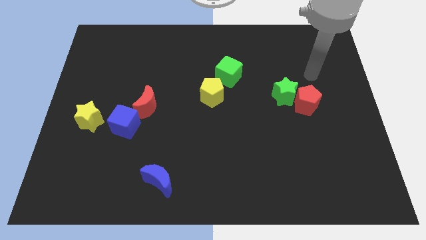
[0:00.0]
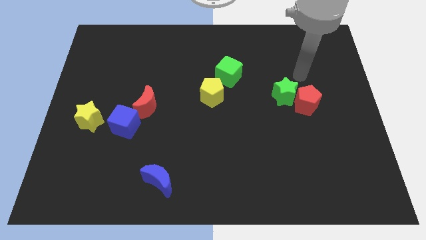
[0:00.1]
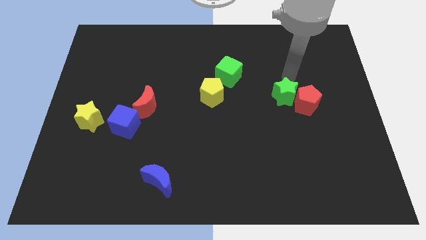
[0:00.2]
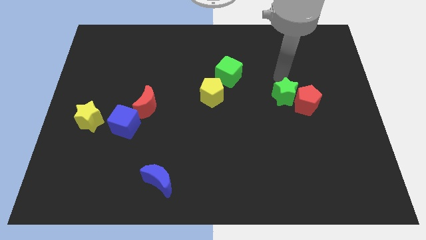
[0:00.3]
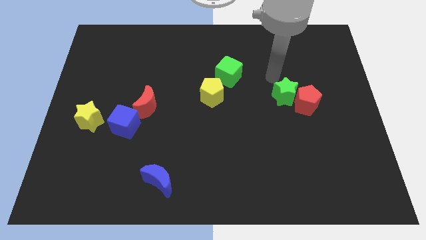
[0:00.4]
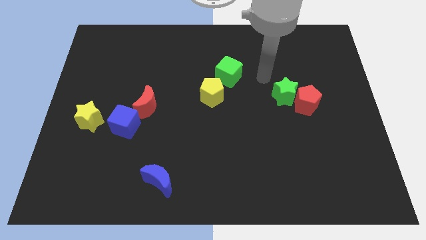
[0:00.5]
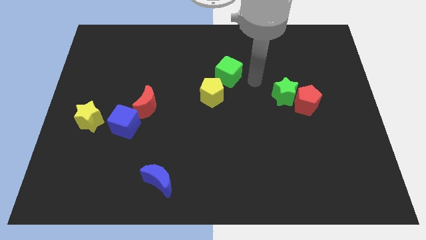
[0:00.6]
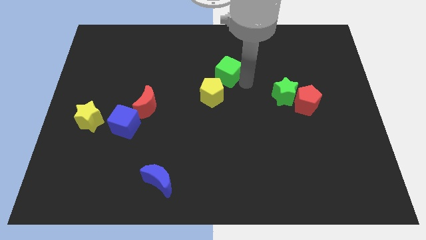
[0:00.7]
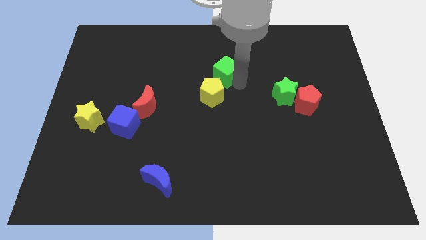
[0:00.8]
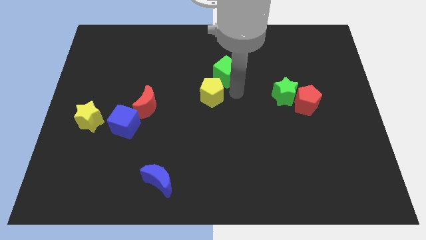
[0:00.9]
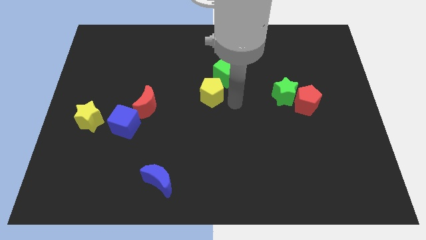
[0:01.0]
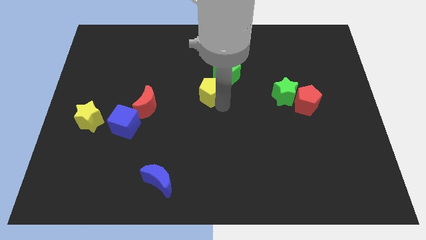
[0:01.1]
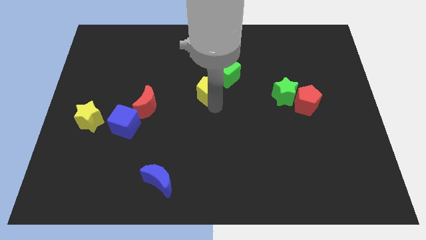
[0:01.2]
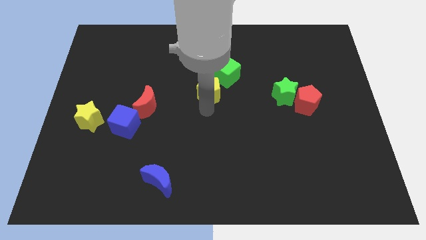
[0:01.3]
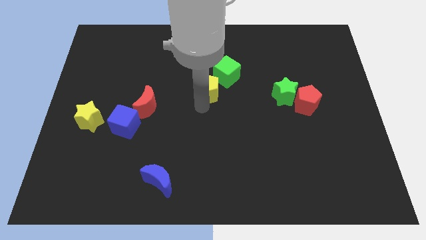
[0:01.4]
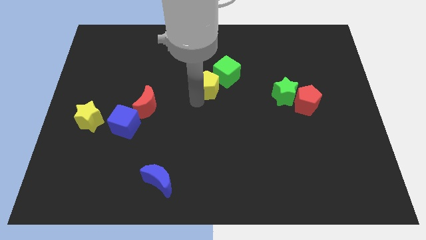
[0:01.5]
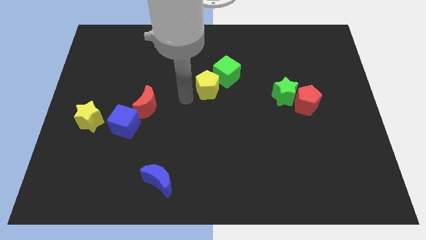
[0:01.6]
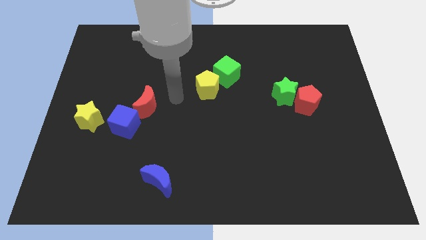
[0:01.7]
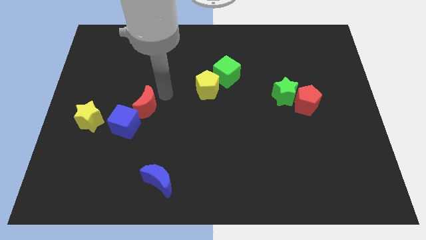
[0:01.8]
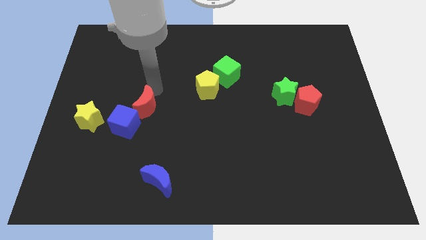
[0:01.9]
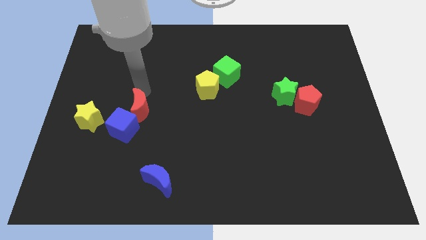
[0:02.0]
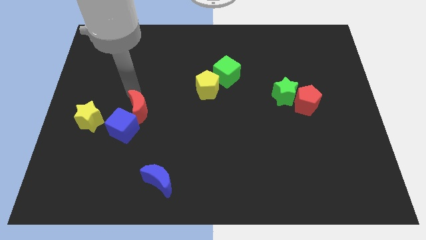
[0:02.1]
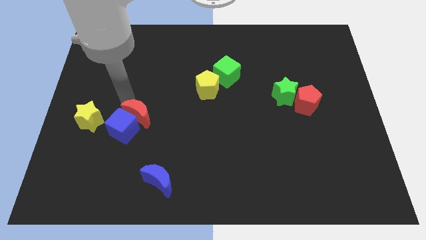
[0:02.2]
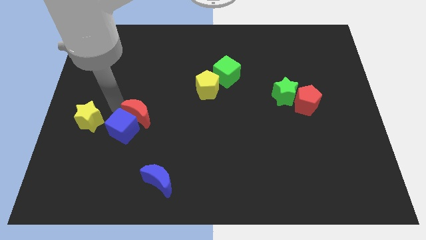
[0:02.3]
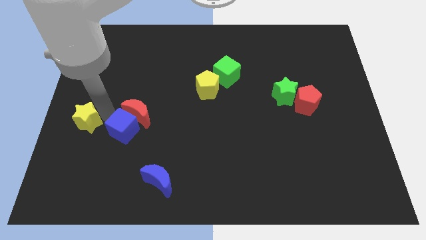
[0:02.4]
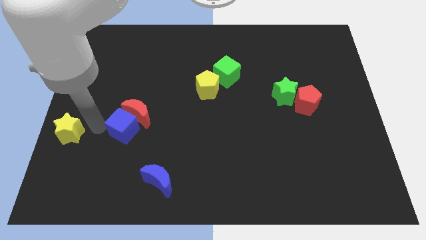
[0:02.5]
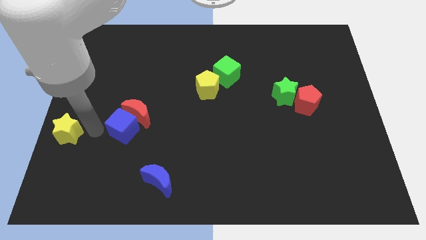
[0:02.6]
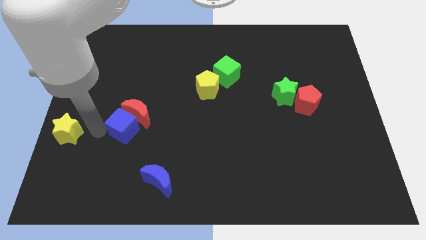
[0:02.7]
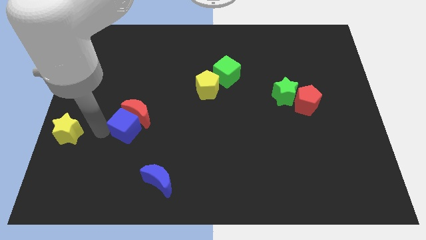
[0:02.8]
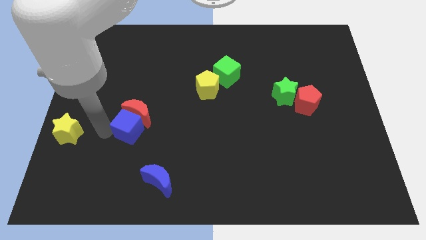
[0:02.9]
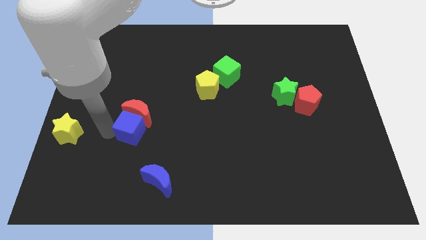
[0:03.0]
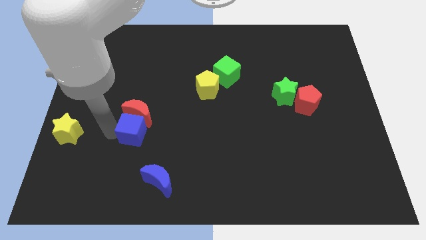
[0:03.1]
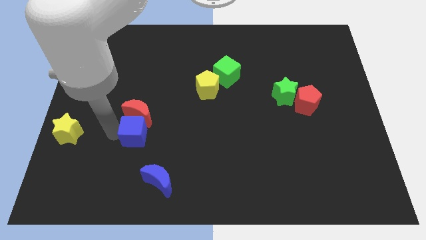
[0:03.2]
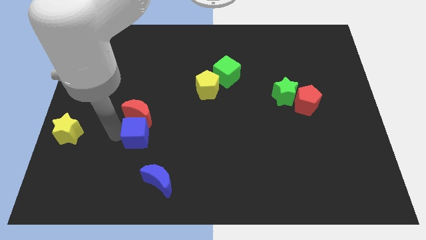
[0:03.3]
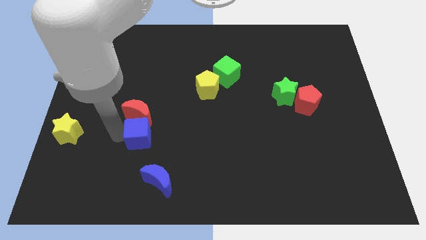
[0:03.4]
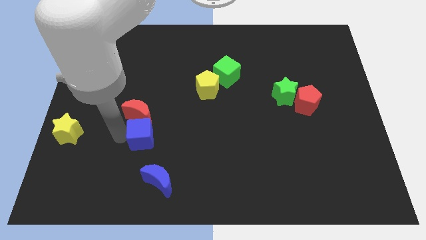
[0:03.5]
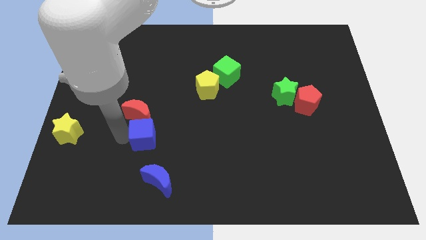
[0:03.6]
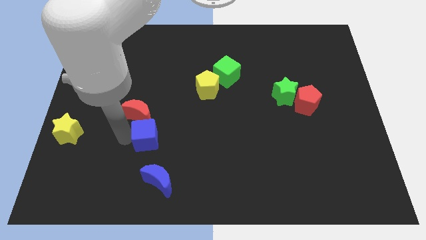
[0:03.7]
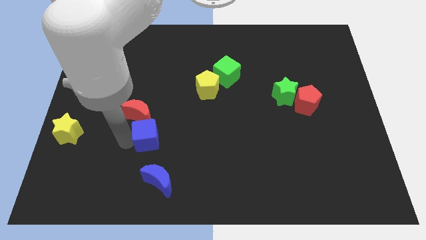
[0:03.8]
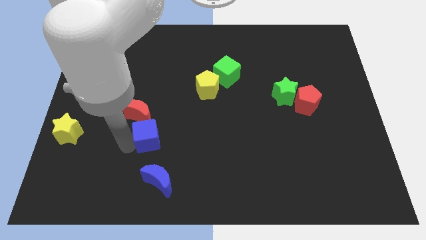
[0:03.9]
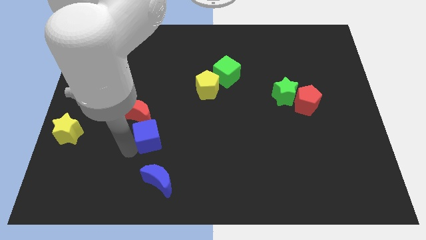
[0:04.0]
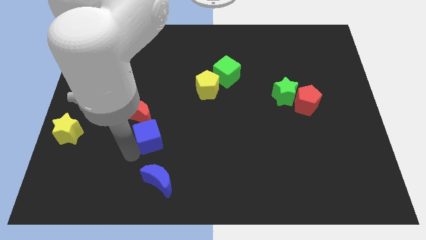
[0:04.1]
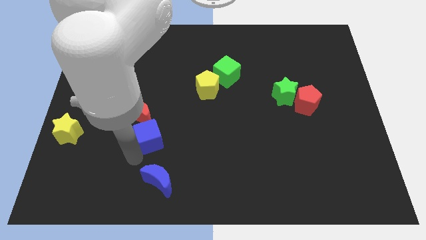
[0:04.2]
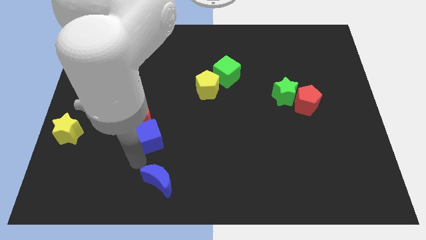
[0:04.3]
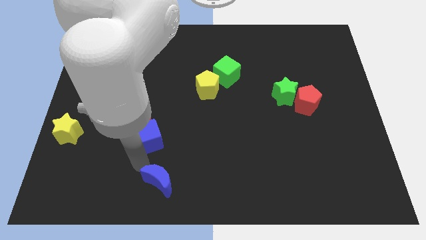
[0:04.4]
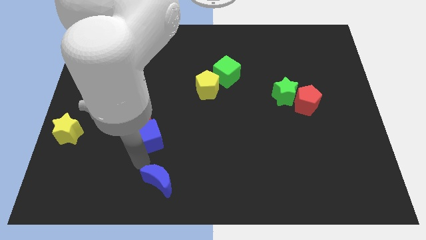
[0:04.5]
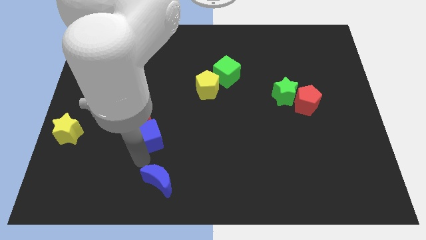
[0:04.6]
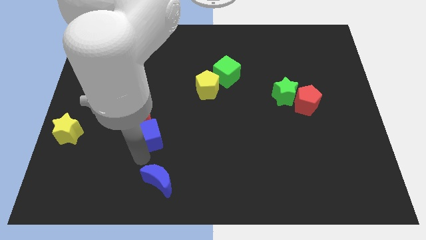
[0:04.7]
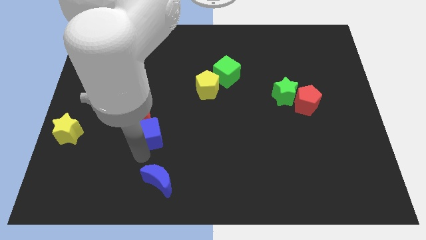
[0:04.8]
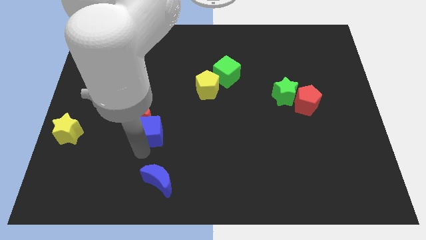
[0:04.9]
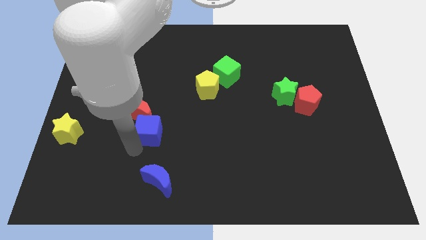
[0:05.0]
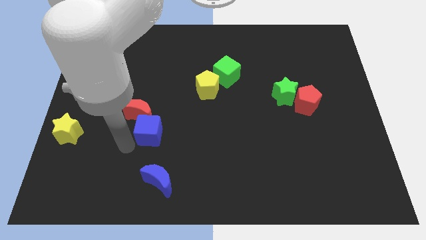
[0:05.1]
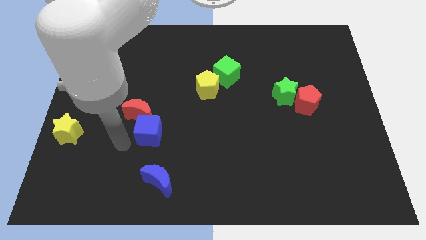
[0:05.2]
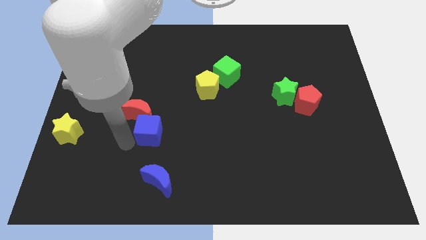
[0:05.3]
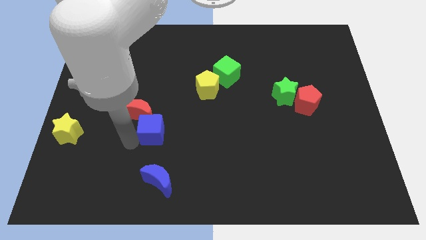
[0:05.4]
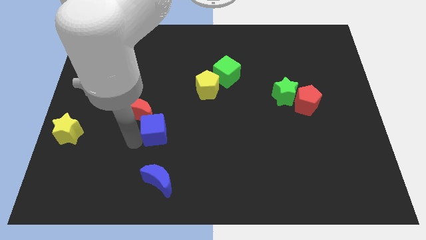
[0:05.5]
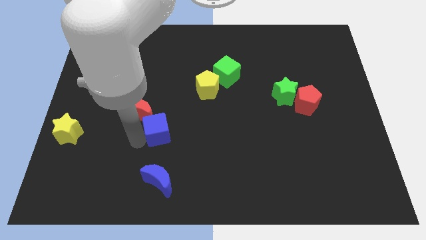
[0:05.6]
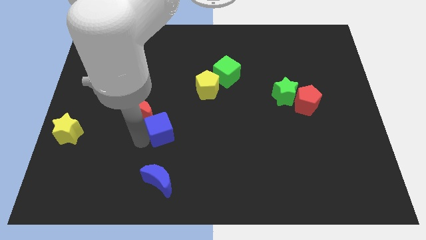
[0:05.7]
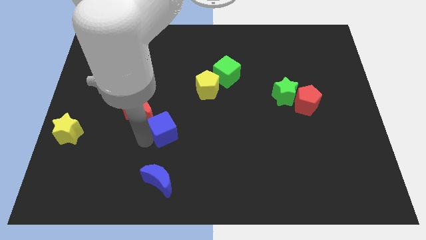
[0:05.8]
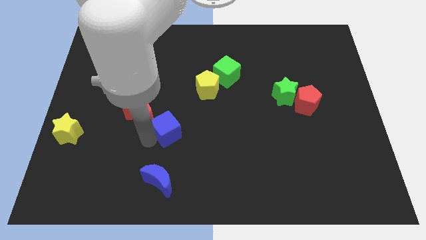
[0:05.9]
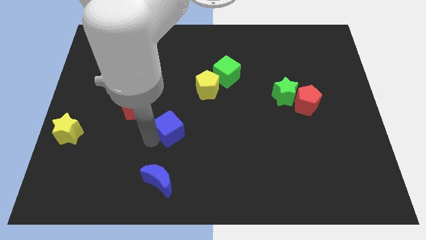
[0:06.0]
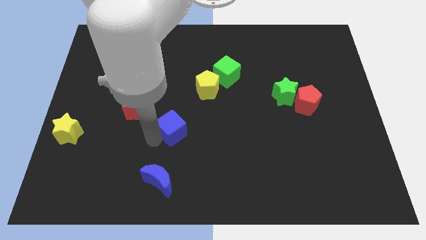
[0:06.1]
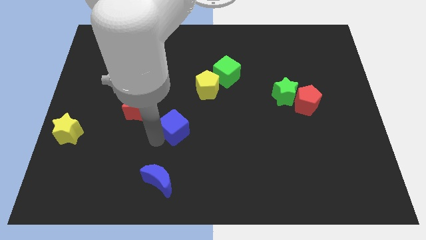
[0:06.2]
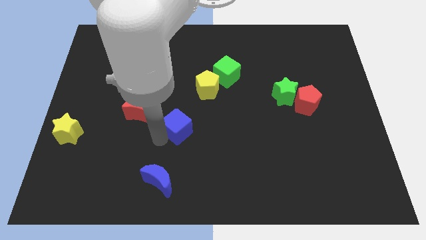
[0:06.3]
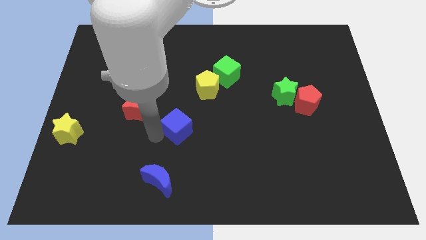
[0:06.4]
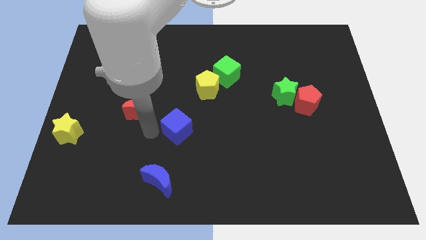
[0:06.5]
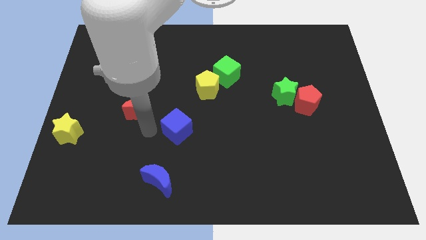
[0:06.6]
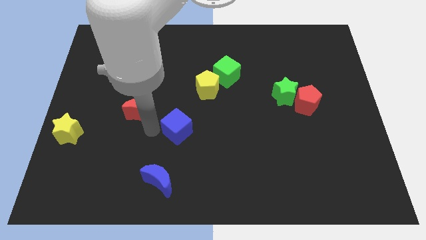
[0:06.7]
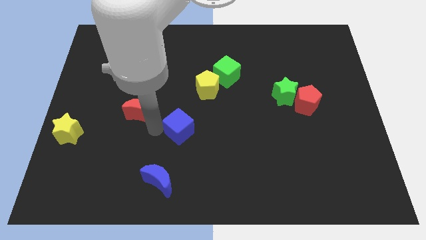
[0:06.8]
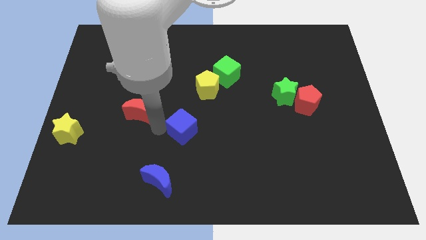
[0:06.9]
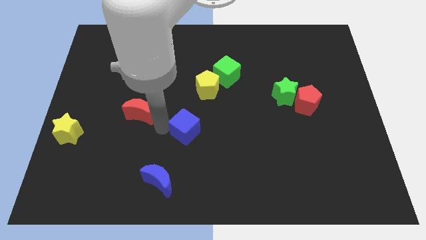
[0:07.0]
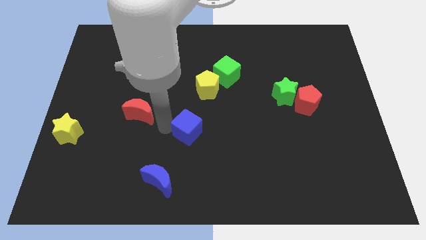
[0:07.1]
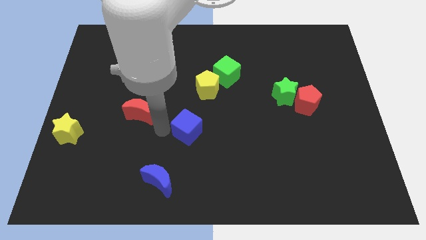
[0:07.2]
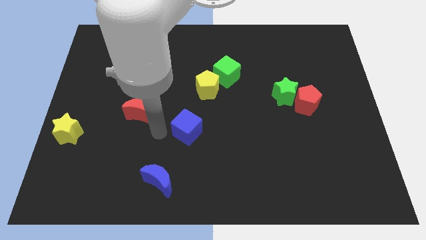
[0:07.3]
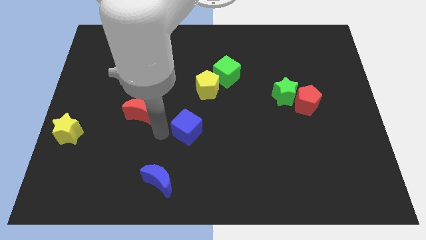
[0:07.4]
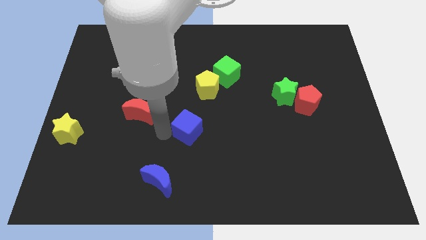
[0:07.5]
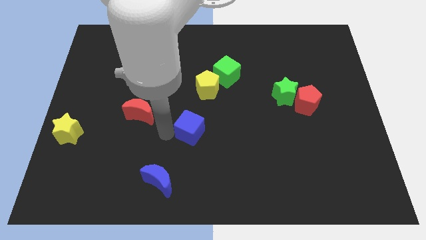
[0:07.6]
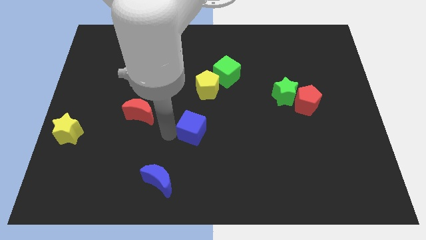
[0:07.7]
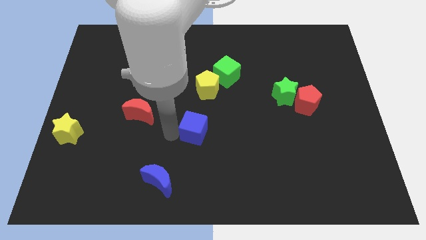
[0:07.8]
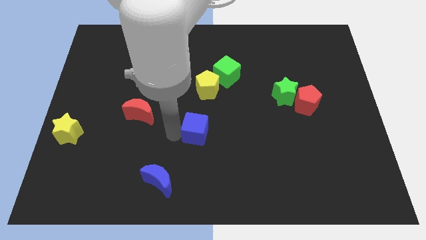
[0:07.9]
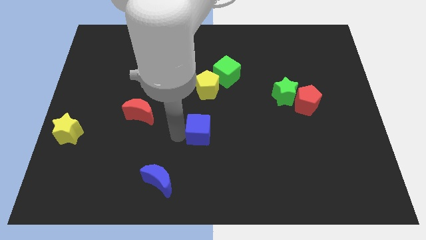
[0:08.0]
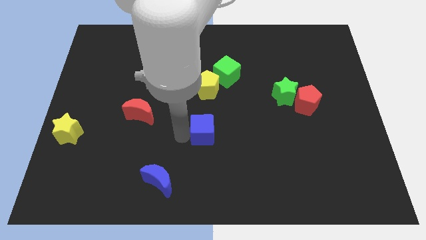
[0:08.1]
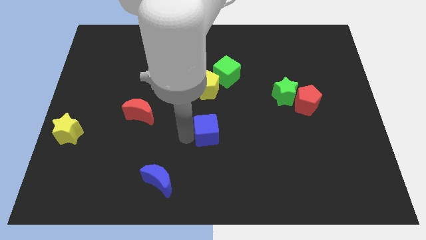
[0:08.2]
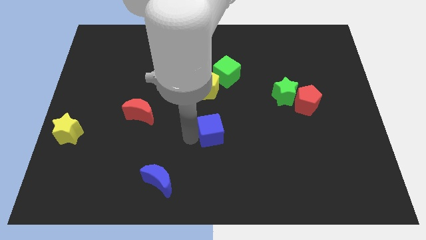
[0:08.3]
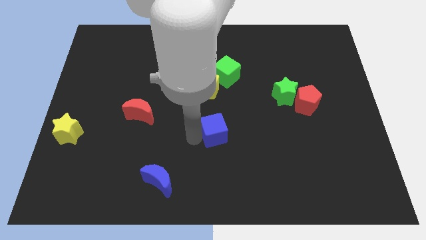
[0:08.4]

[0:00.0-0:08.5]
move the blue cube right
